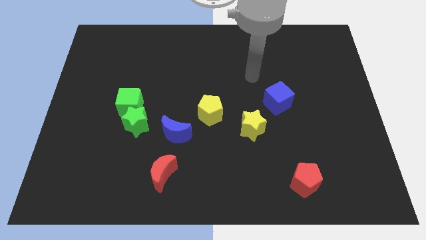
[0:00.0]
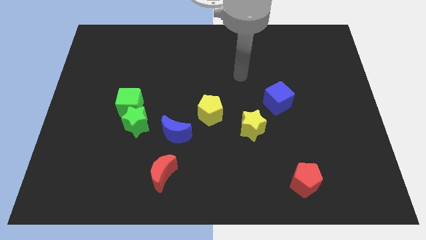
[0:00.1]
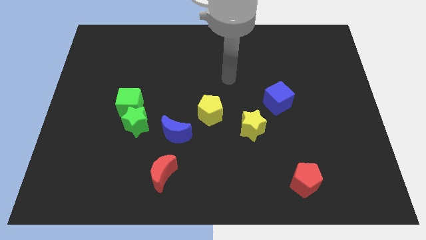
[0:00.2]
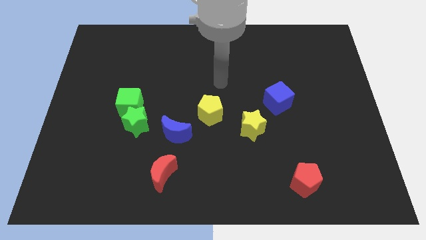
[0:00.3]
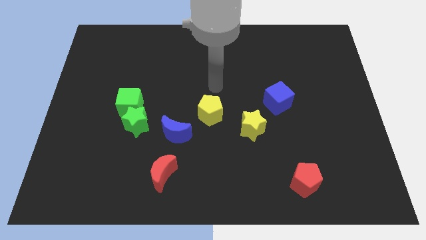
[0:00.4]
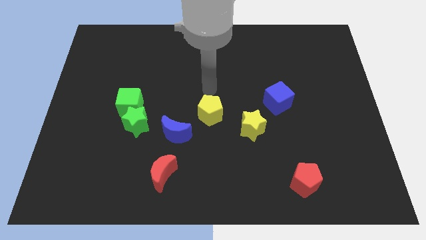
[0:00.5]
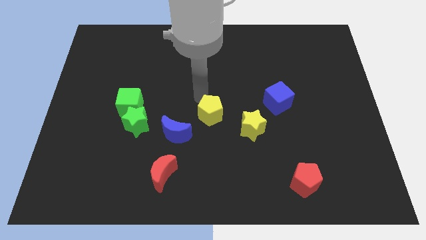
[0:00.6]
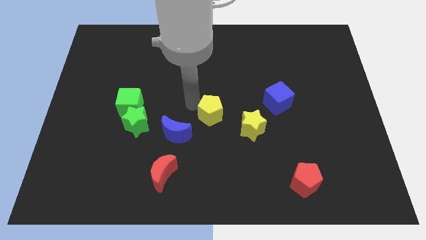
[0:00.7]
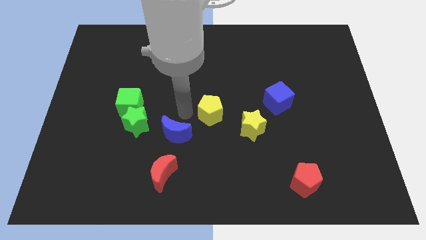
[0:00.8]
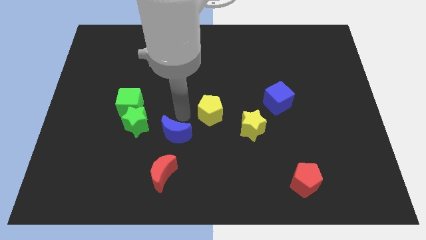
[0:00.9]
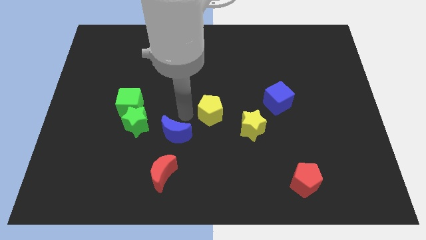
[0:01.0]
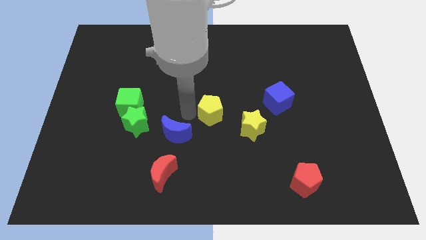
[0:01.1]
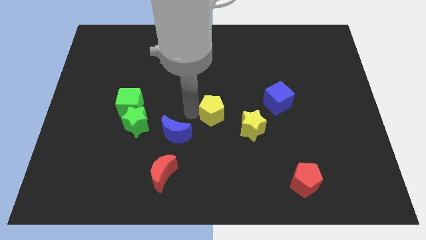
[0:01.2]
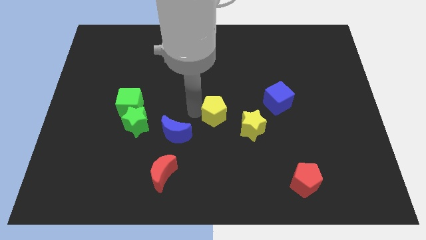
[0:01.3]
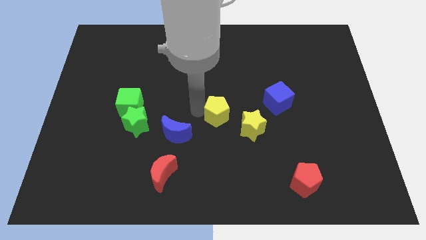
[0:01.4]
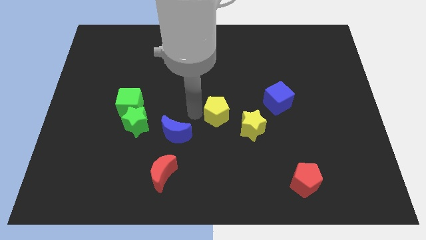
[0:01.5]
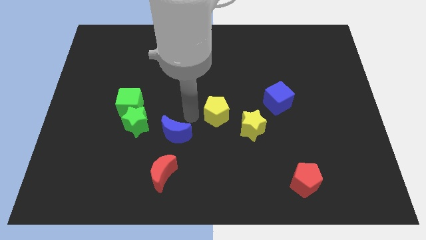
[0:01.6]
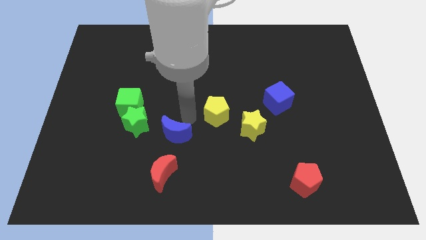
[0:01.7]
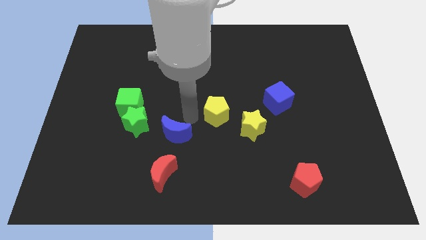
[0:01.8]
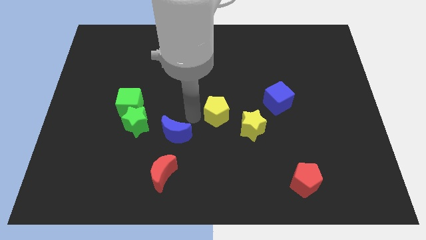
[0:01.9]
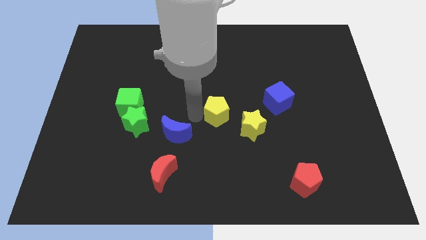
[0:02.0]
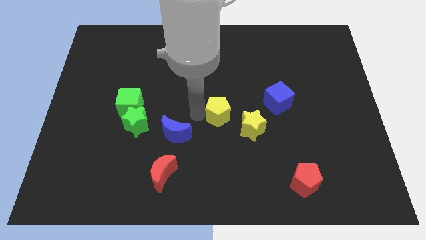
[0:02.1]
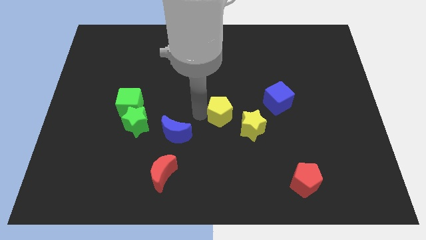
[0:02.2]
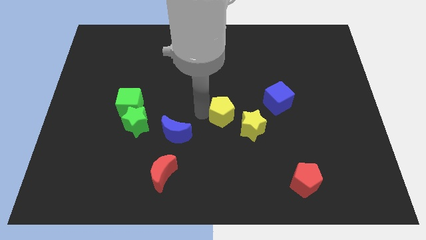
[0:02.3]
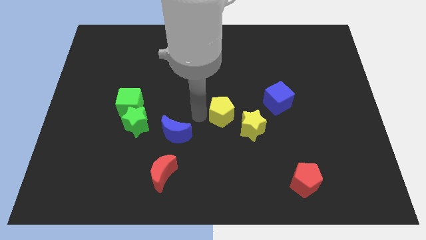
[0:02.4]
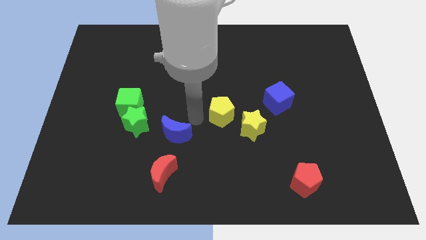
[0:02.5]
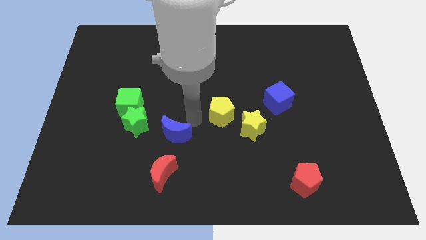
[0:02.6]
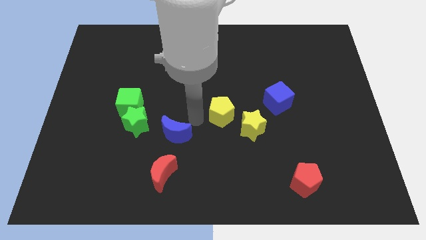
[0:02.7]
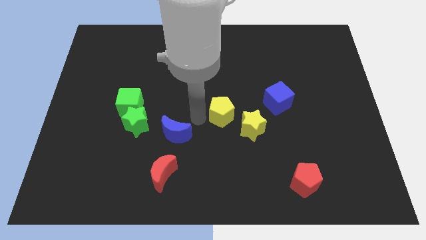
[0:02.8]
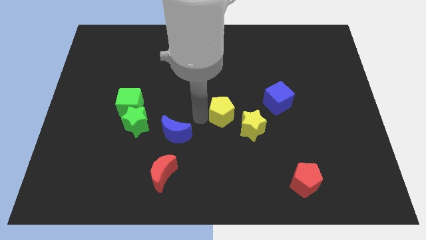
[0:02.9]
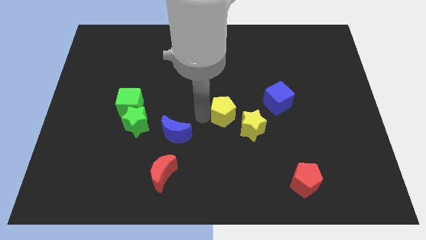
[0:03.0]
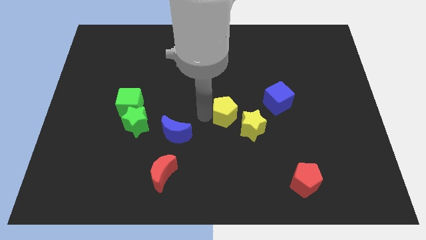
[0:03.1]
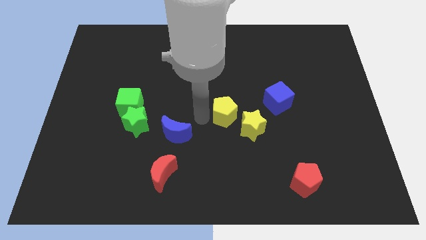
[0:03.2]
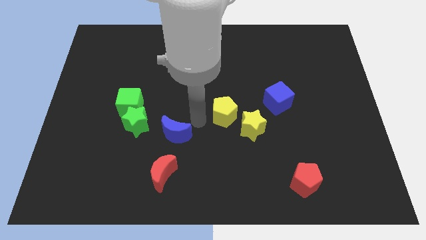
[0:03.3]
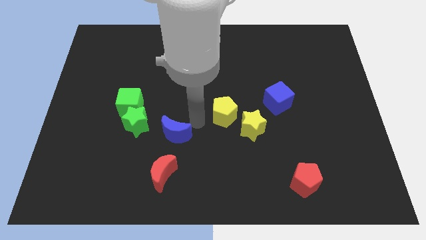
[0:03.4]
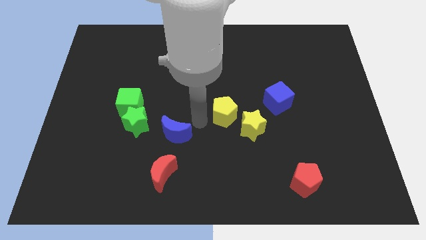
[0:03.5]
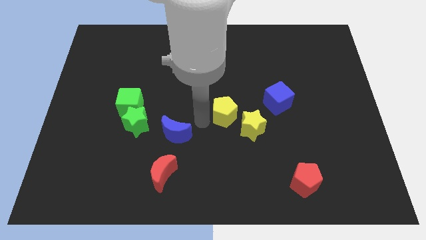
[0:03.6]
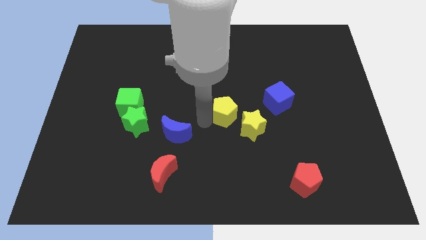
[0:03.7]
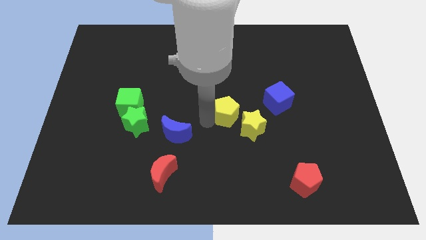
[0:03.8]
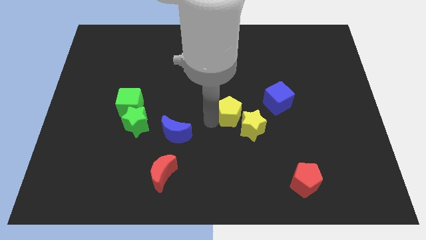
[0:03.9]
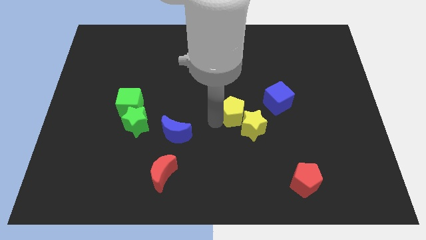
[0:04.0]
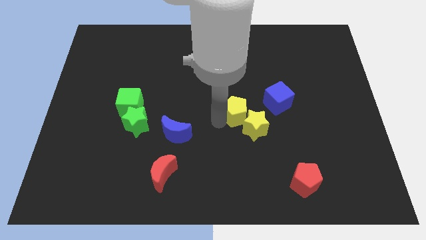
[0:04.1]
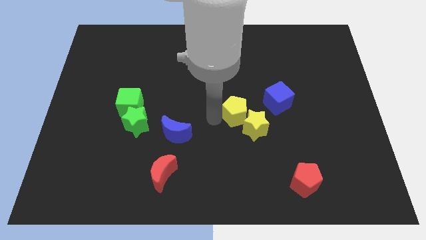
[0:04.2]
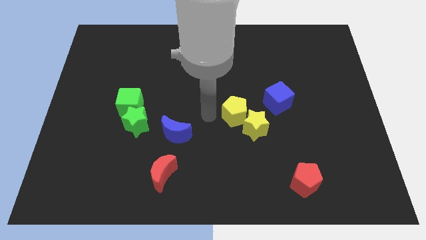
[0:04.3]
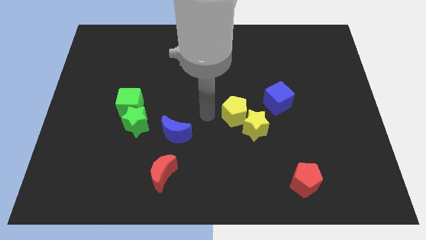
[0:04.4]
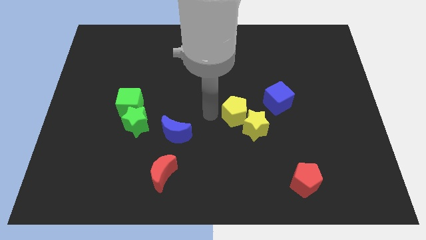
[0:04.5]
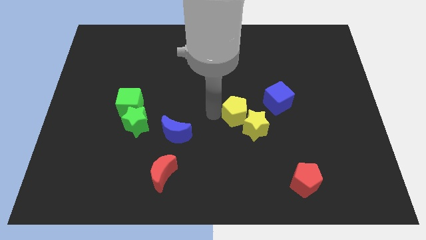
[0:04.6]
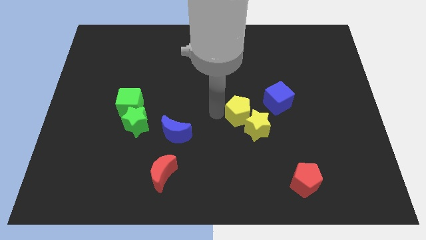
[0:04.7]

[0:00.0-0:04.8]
slide the yellow pentagon somewhat to the right

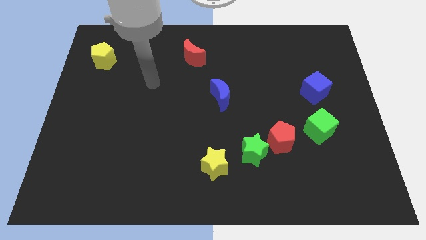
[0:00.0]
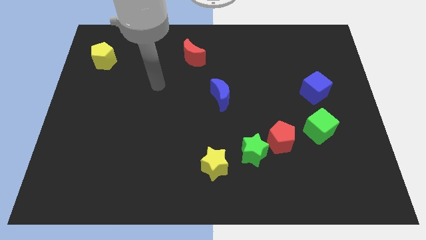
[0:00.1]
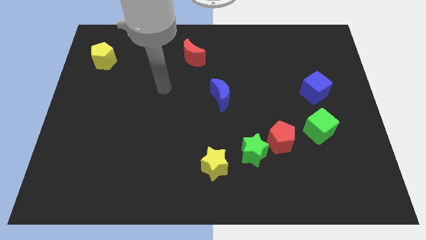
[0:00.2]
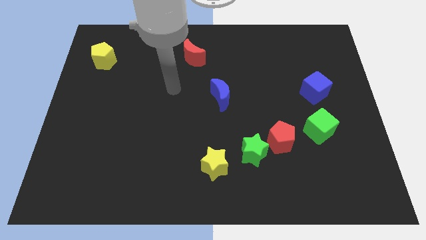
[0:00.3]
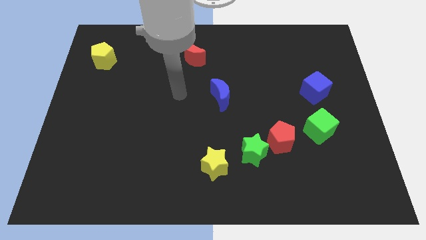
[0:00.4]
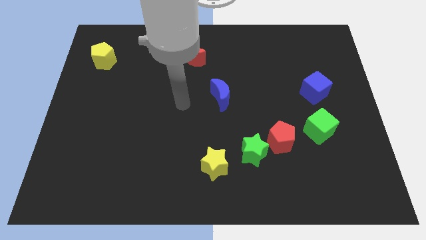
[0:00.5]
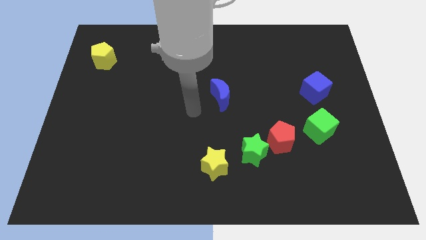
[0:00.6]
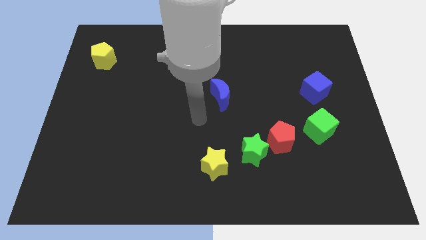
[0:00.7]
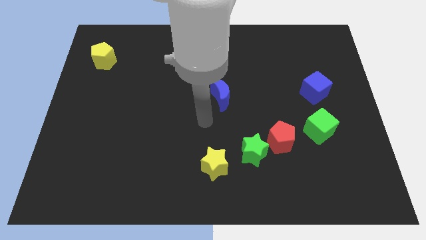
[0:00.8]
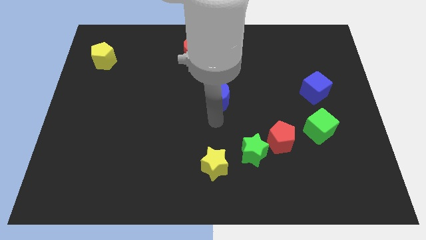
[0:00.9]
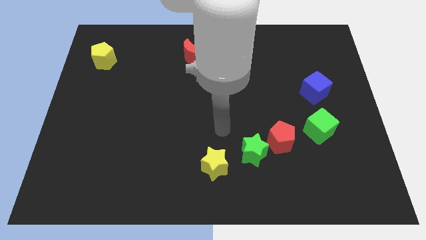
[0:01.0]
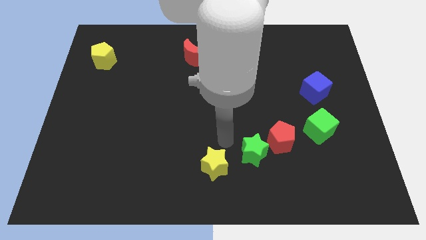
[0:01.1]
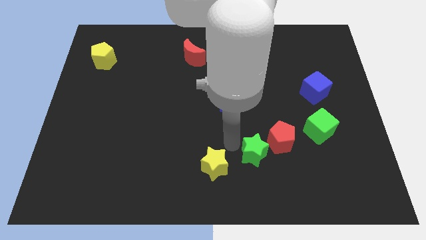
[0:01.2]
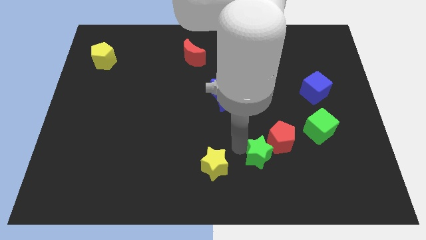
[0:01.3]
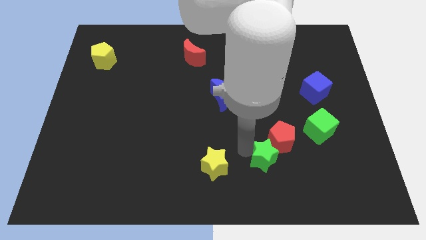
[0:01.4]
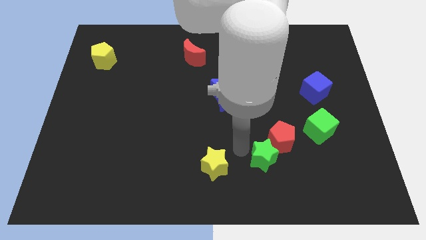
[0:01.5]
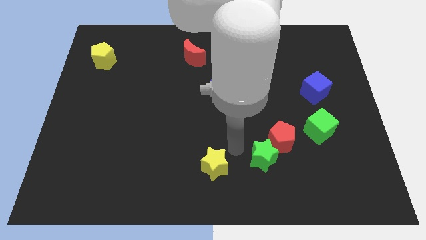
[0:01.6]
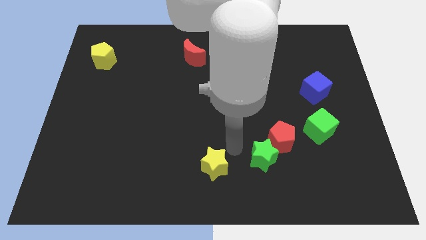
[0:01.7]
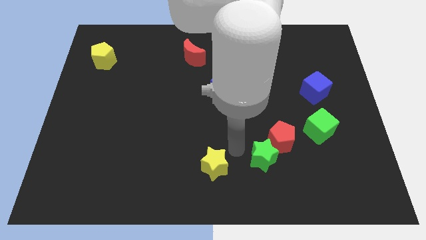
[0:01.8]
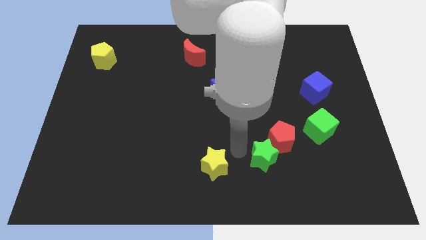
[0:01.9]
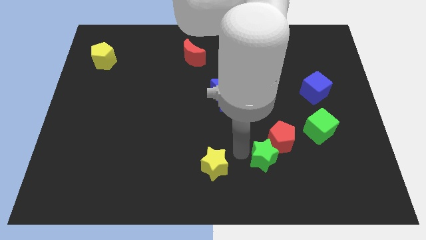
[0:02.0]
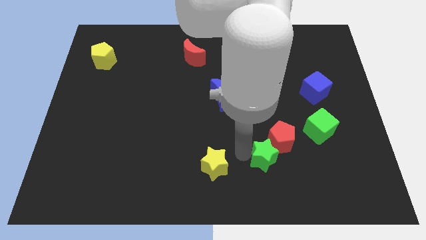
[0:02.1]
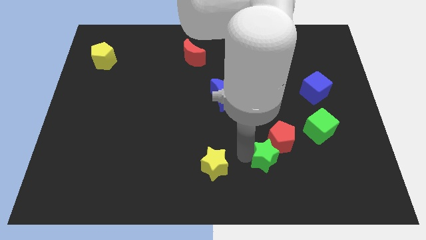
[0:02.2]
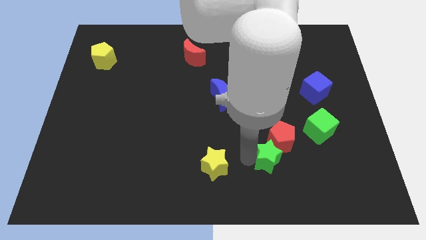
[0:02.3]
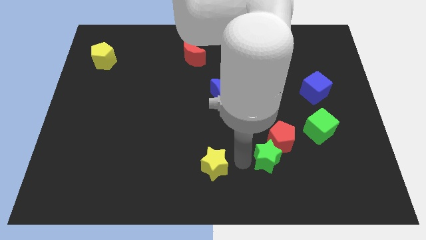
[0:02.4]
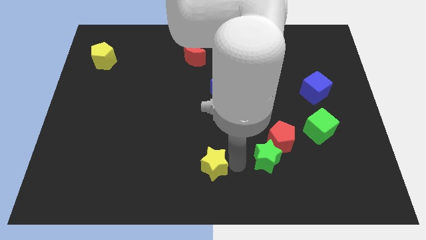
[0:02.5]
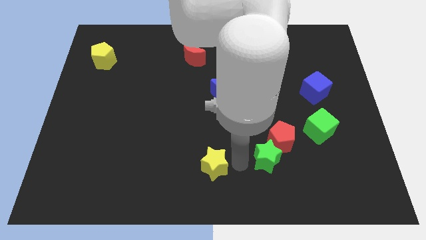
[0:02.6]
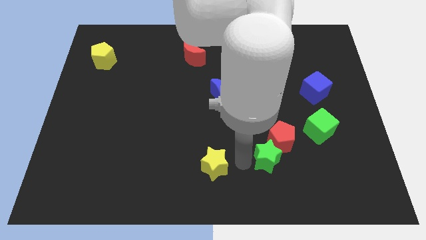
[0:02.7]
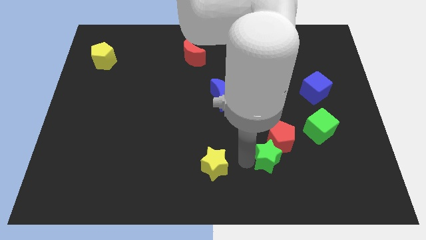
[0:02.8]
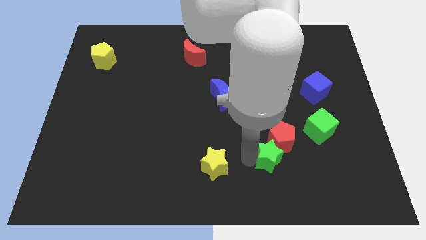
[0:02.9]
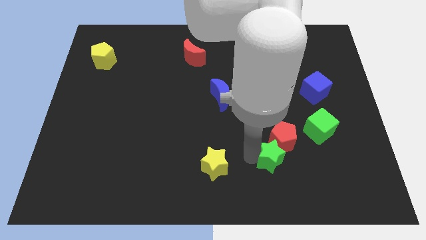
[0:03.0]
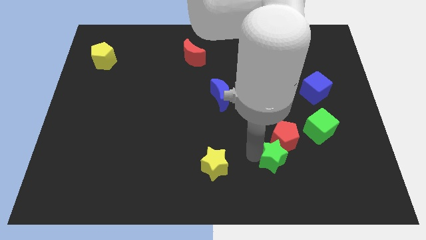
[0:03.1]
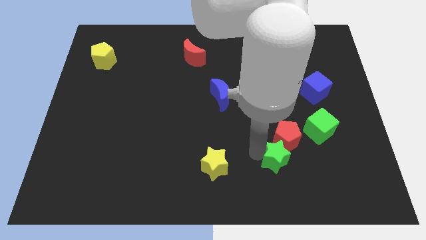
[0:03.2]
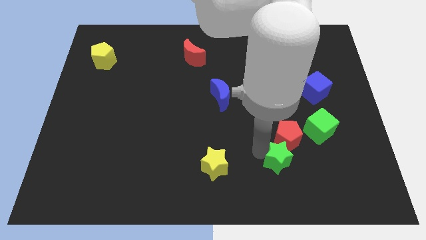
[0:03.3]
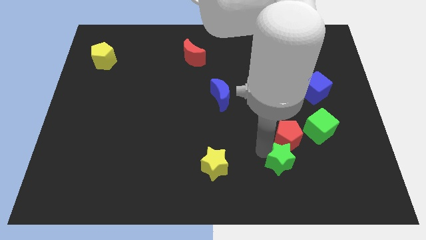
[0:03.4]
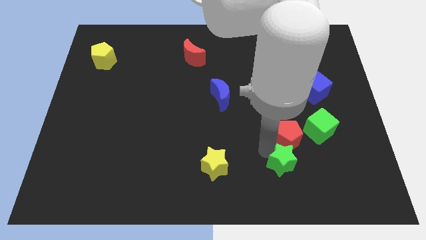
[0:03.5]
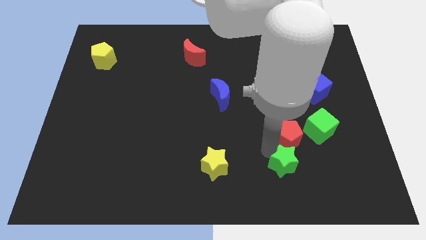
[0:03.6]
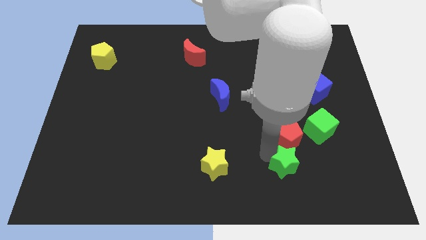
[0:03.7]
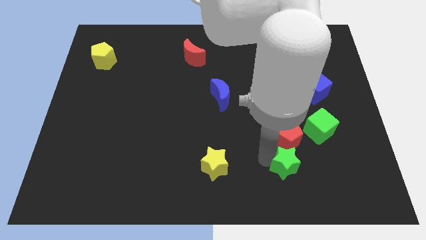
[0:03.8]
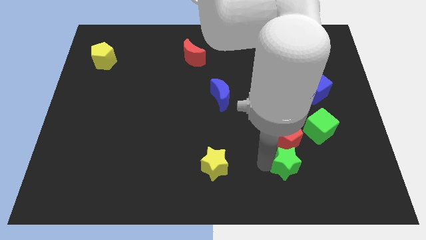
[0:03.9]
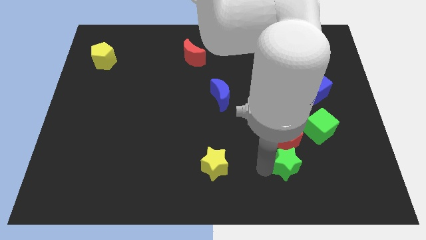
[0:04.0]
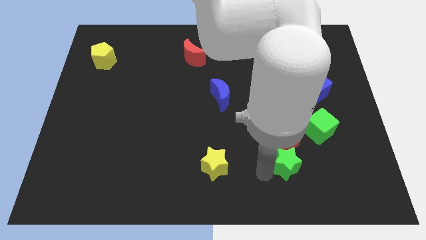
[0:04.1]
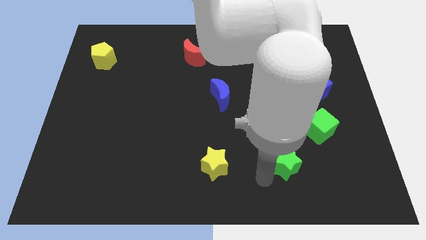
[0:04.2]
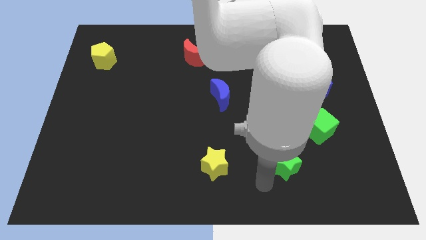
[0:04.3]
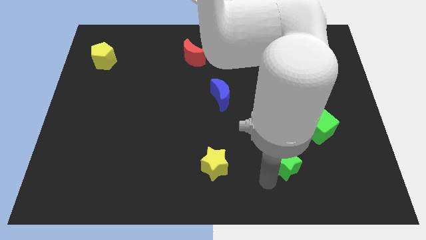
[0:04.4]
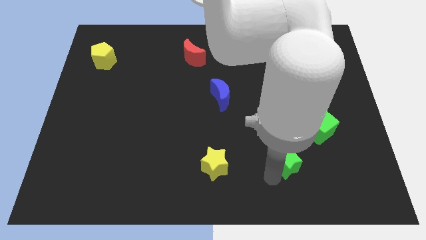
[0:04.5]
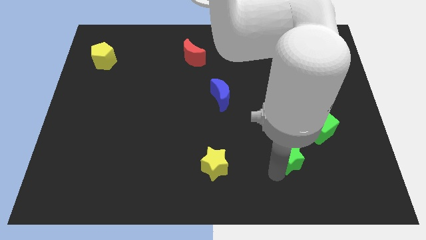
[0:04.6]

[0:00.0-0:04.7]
push the green star right a little bit
